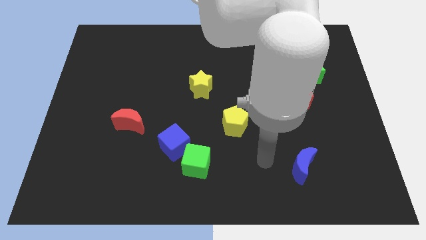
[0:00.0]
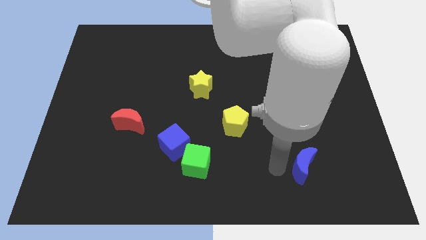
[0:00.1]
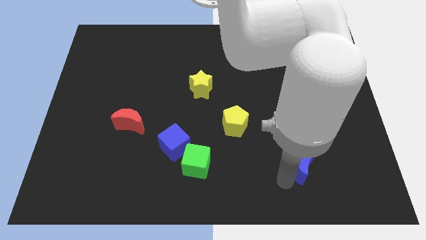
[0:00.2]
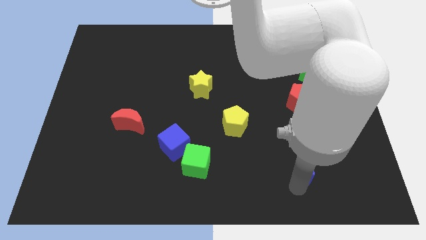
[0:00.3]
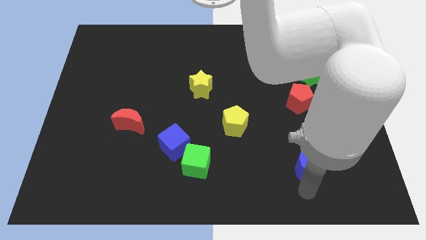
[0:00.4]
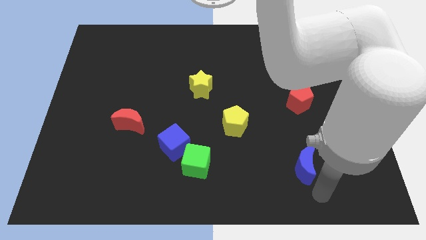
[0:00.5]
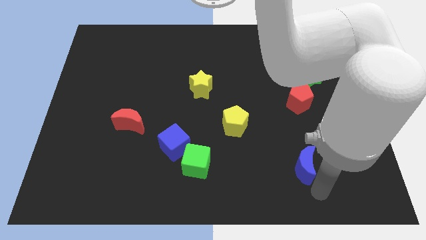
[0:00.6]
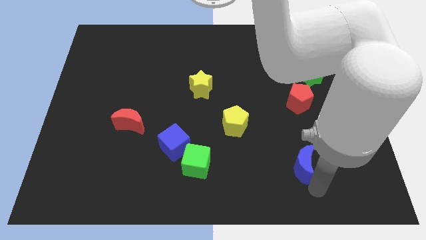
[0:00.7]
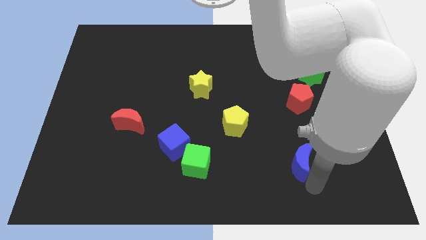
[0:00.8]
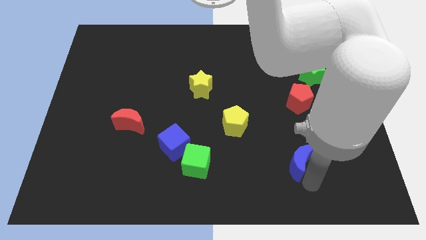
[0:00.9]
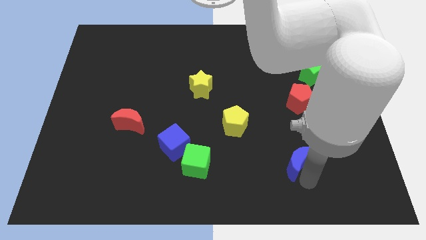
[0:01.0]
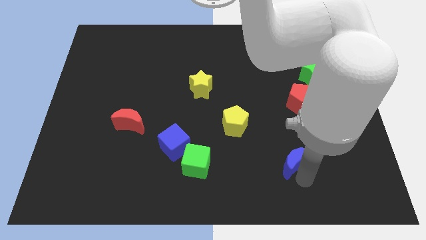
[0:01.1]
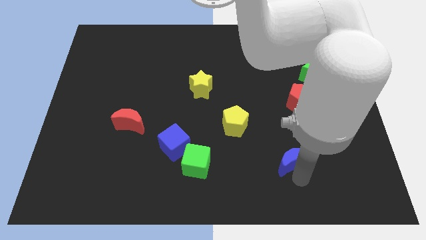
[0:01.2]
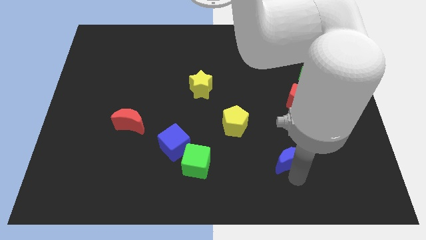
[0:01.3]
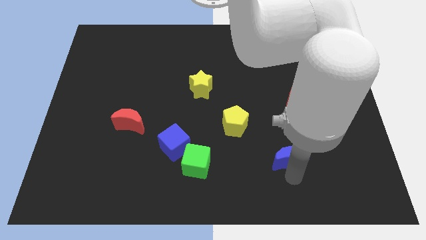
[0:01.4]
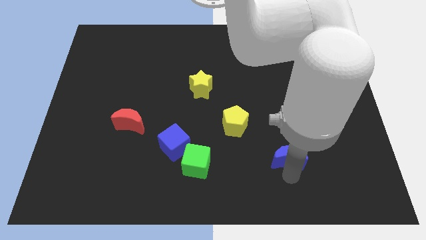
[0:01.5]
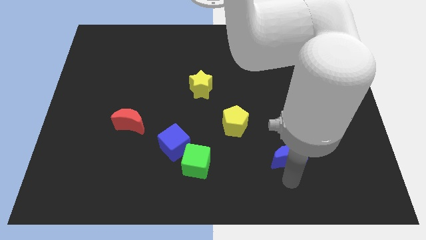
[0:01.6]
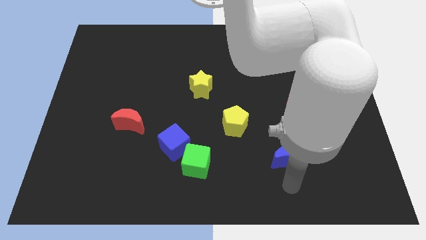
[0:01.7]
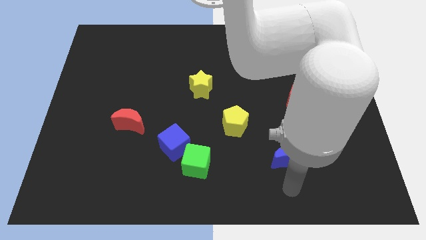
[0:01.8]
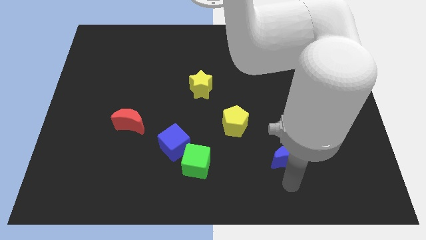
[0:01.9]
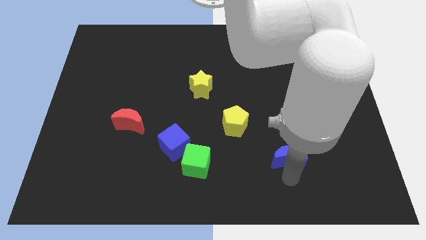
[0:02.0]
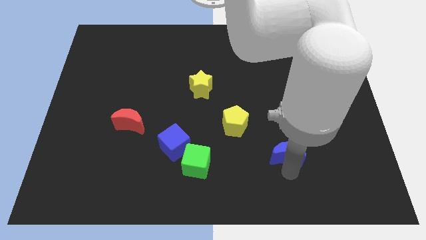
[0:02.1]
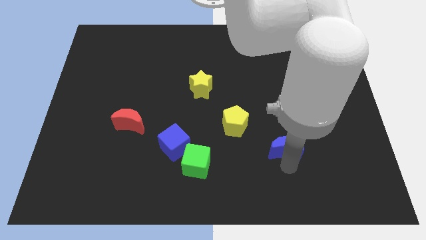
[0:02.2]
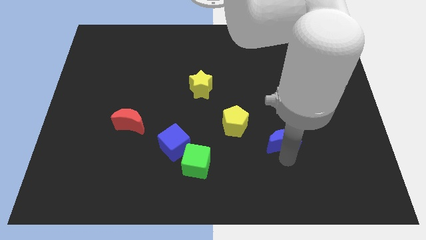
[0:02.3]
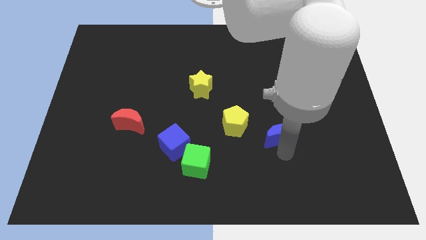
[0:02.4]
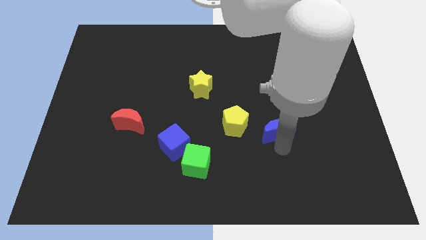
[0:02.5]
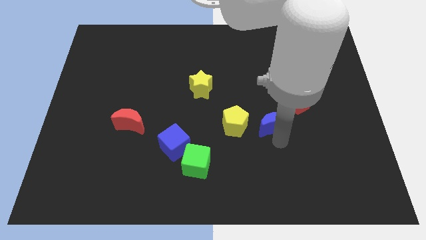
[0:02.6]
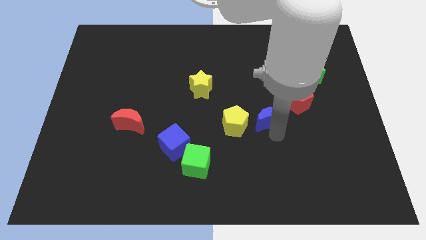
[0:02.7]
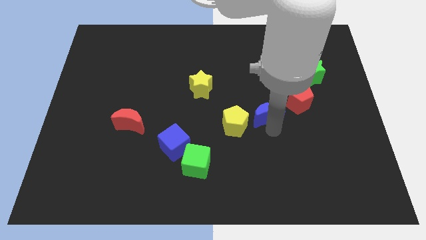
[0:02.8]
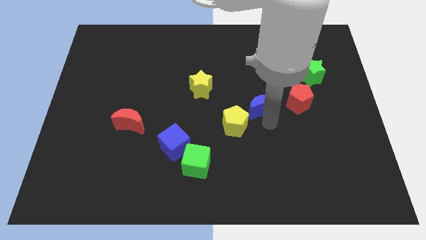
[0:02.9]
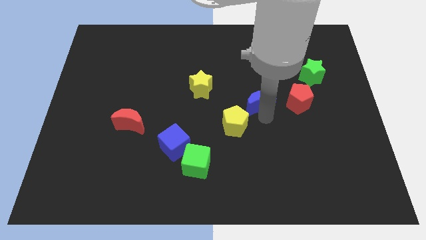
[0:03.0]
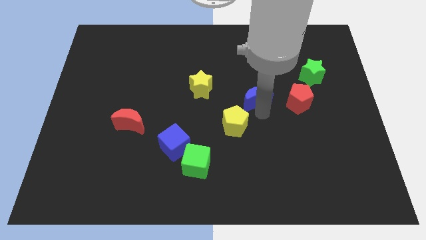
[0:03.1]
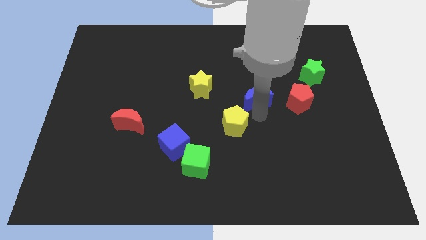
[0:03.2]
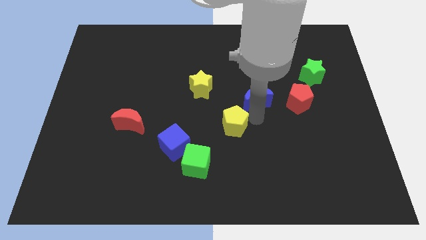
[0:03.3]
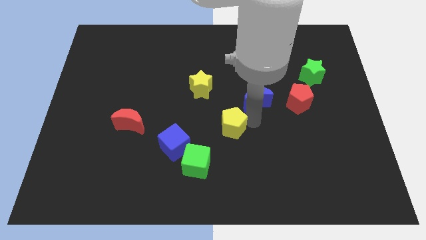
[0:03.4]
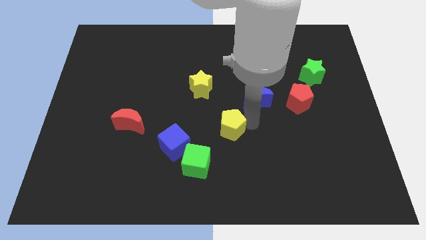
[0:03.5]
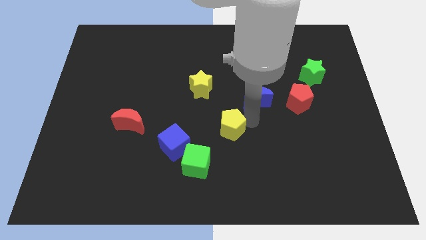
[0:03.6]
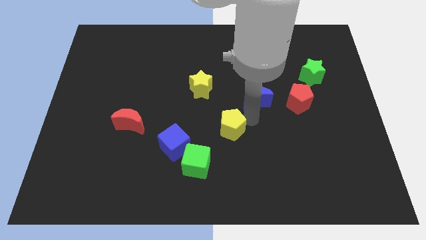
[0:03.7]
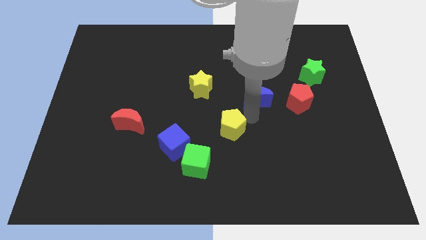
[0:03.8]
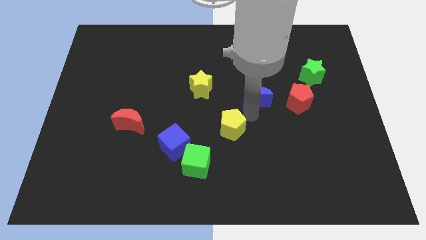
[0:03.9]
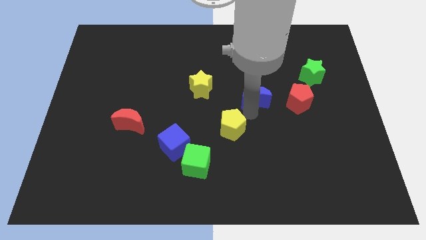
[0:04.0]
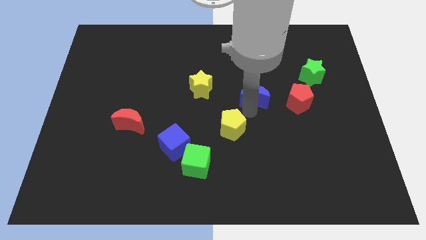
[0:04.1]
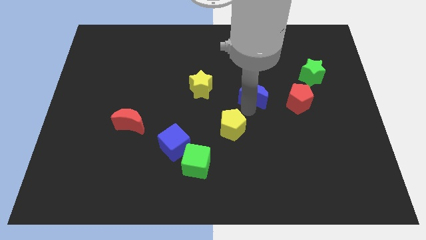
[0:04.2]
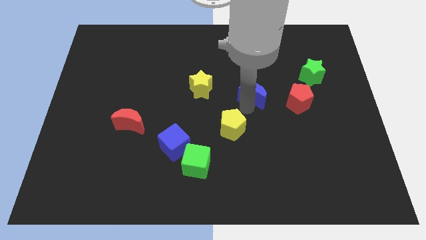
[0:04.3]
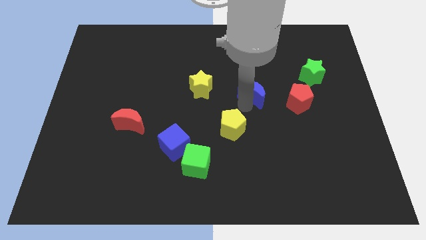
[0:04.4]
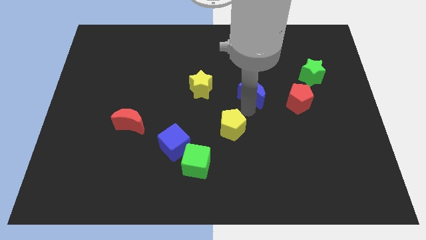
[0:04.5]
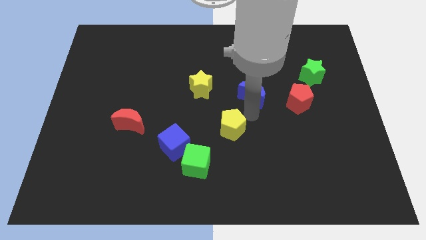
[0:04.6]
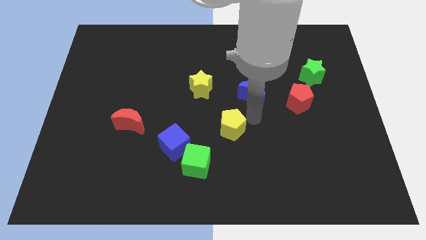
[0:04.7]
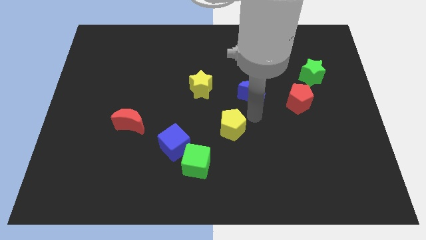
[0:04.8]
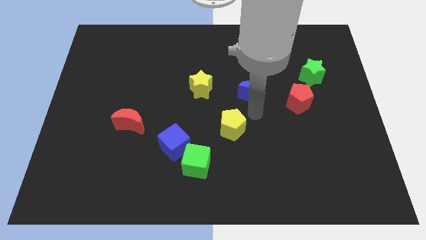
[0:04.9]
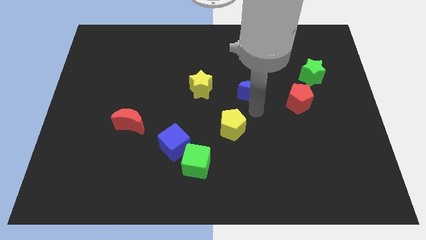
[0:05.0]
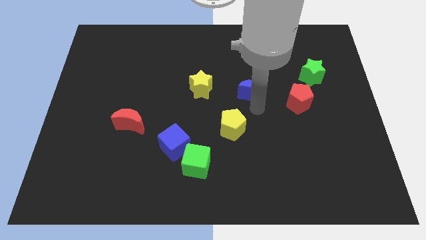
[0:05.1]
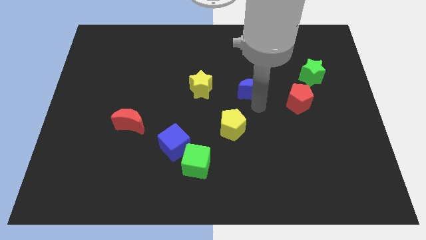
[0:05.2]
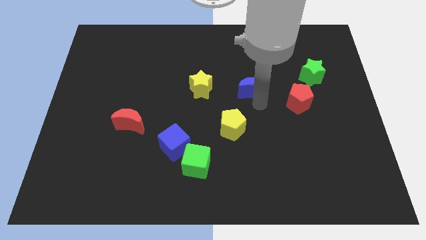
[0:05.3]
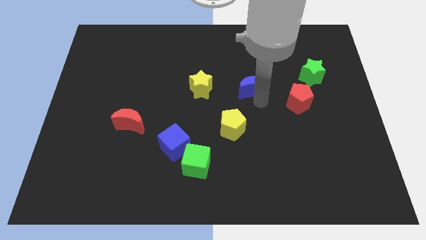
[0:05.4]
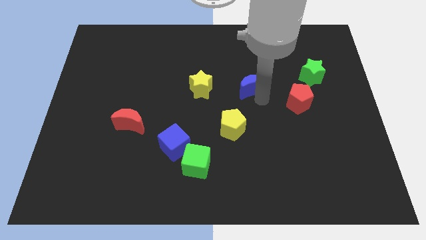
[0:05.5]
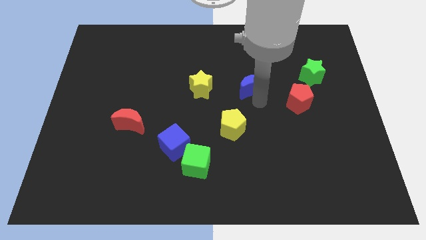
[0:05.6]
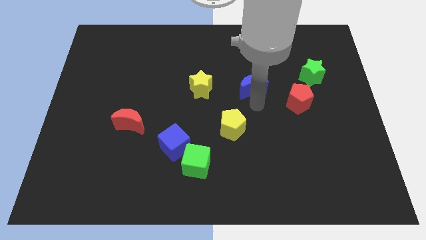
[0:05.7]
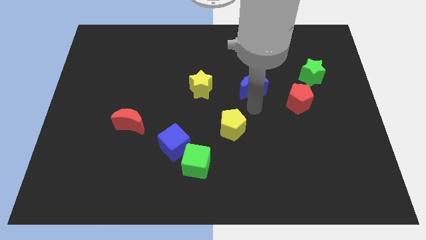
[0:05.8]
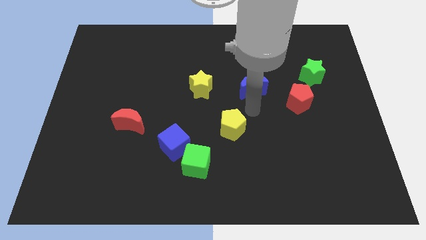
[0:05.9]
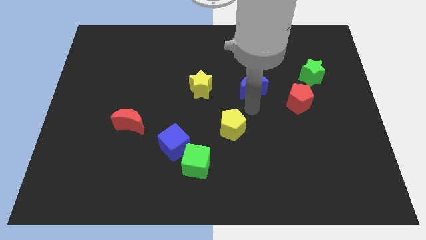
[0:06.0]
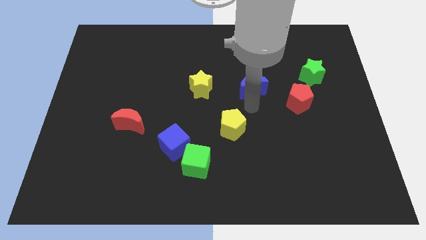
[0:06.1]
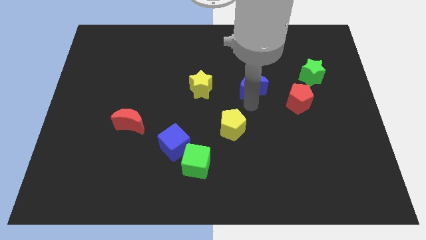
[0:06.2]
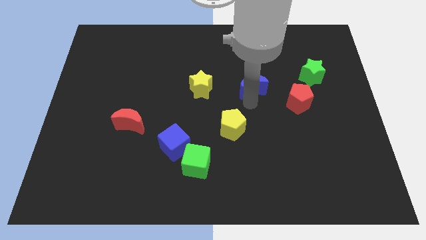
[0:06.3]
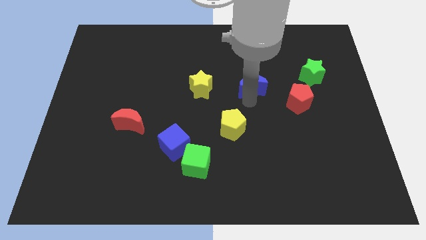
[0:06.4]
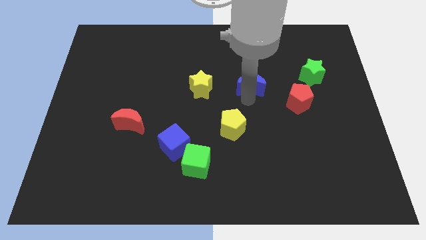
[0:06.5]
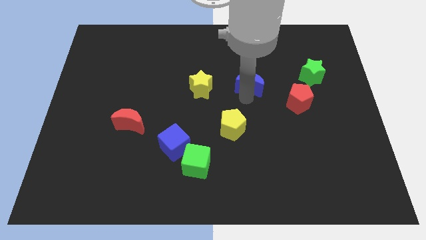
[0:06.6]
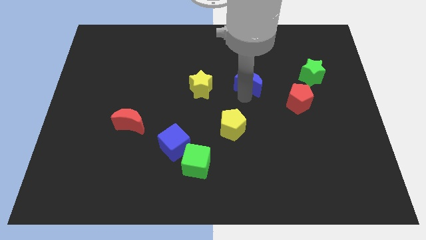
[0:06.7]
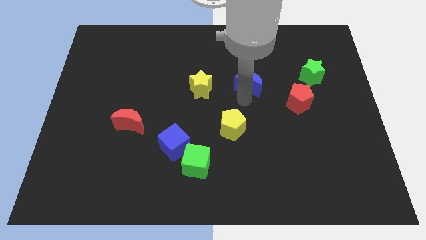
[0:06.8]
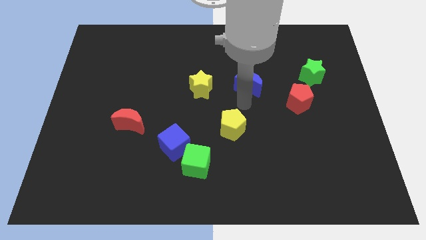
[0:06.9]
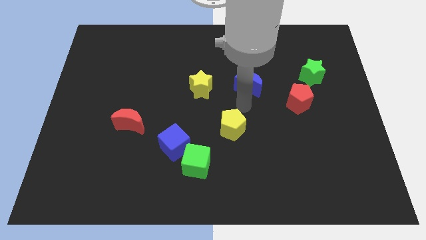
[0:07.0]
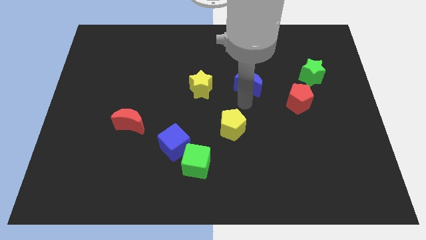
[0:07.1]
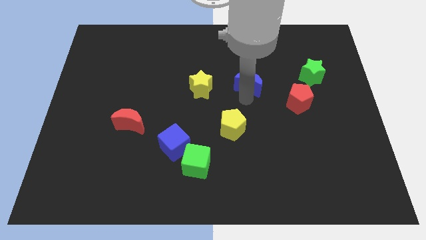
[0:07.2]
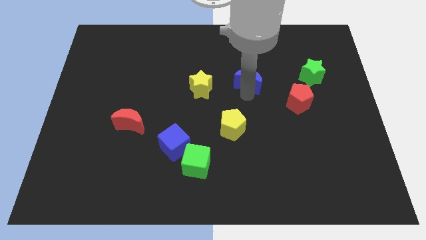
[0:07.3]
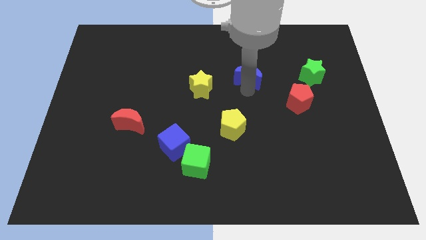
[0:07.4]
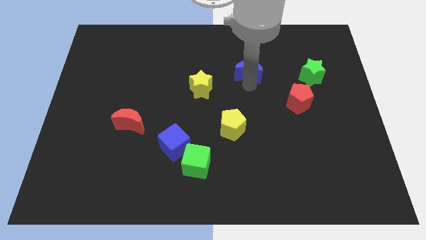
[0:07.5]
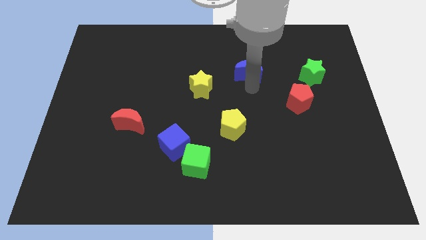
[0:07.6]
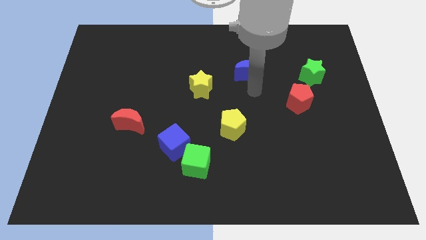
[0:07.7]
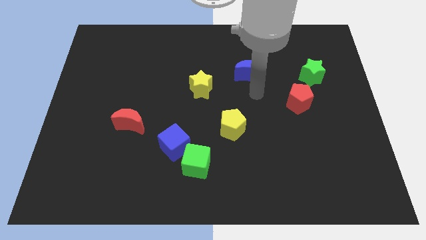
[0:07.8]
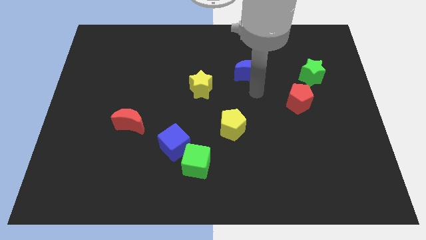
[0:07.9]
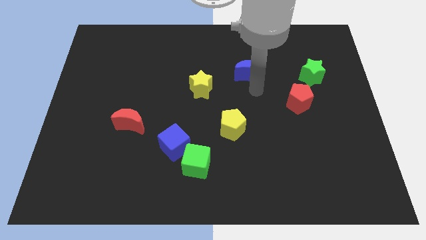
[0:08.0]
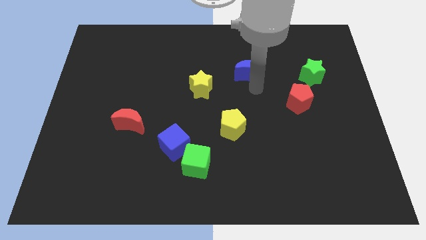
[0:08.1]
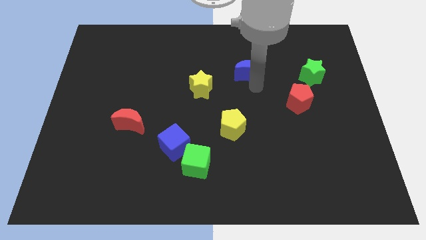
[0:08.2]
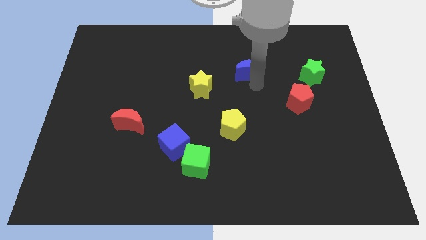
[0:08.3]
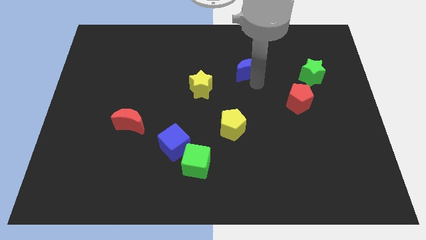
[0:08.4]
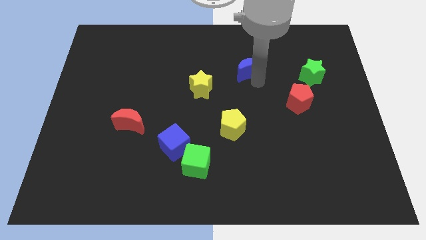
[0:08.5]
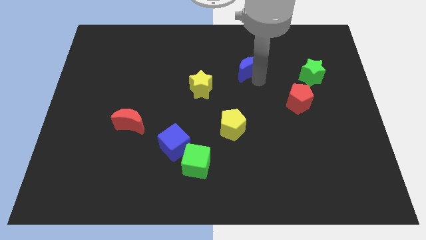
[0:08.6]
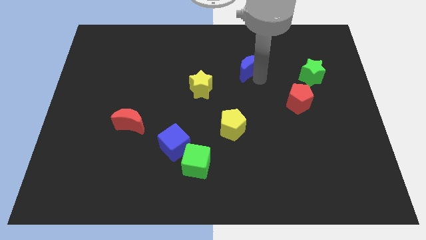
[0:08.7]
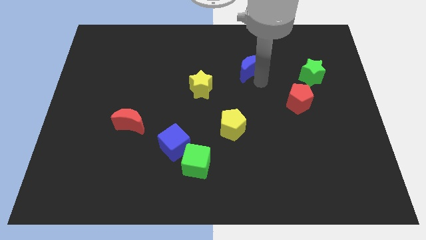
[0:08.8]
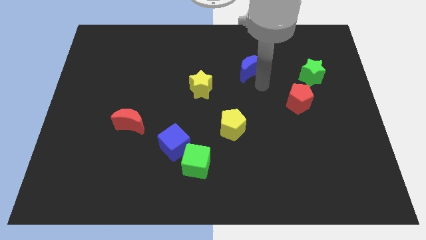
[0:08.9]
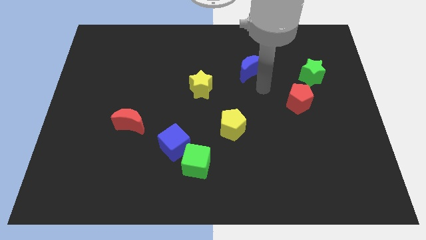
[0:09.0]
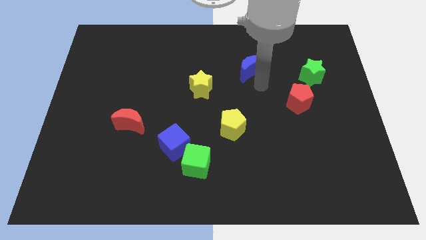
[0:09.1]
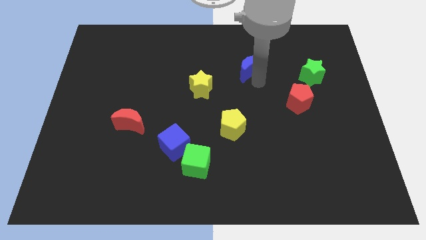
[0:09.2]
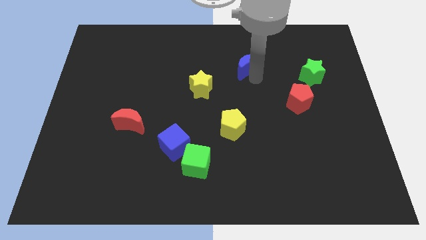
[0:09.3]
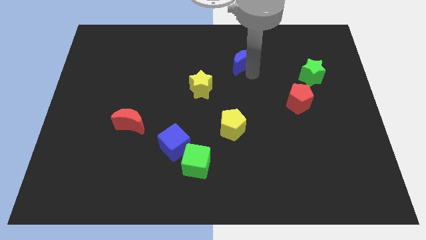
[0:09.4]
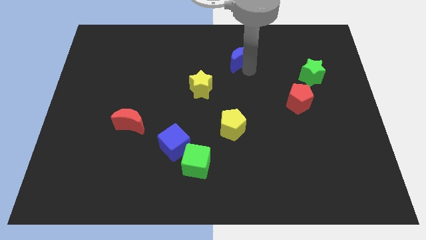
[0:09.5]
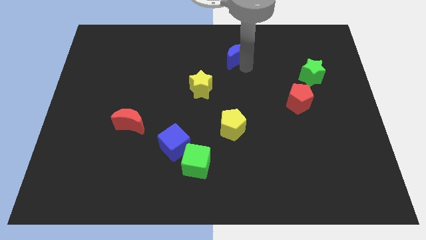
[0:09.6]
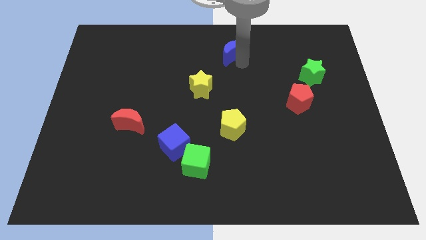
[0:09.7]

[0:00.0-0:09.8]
slide the blue moon to the top
